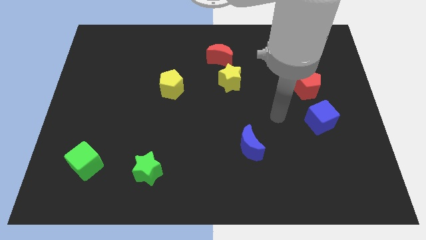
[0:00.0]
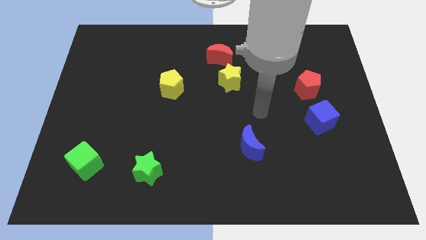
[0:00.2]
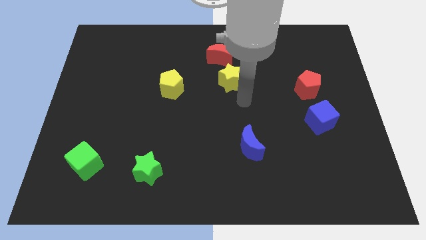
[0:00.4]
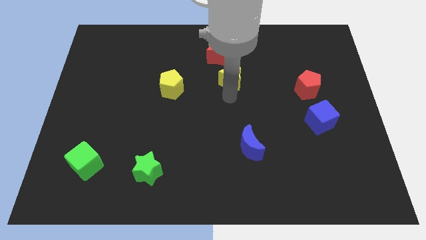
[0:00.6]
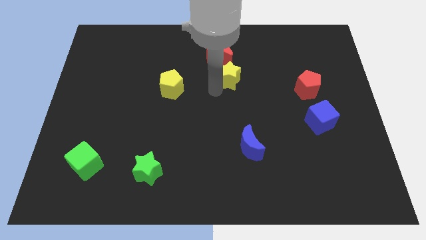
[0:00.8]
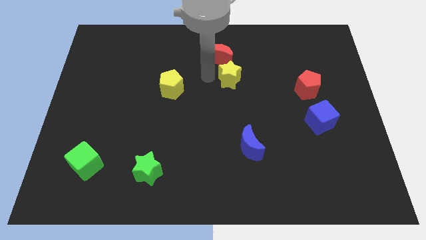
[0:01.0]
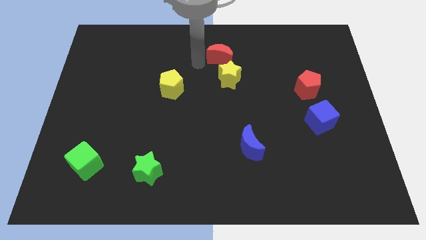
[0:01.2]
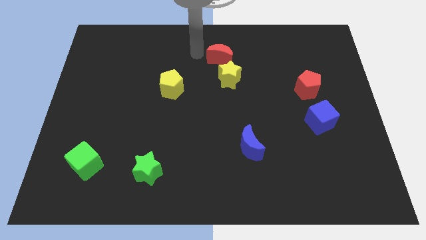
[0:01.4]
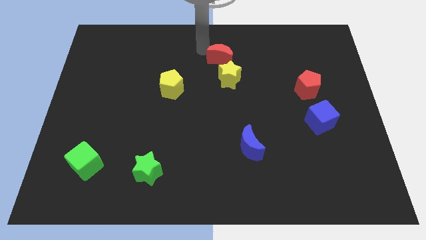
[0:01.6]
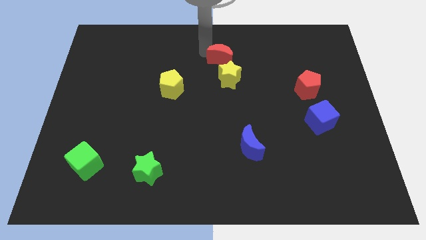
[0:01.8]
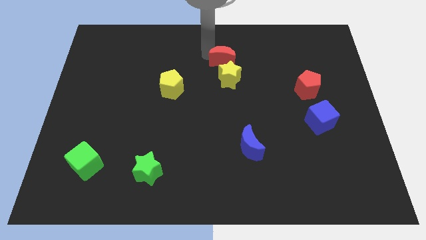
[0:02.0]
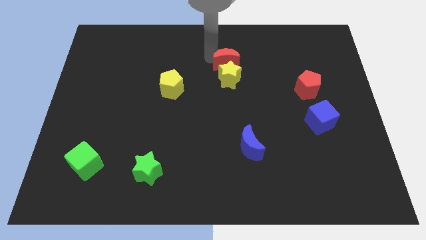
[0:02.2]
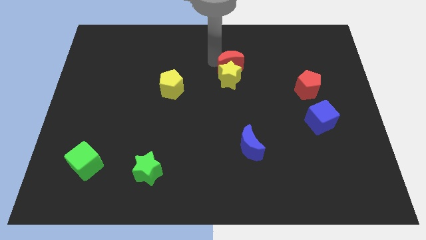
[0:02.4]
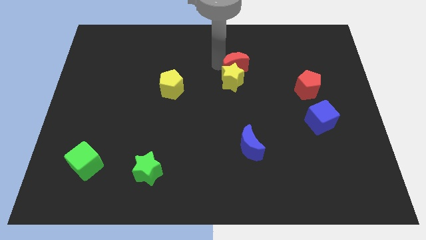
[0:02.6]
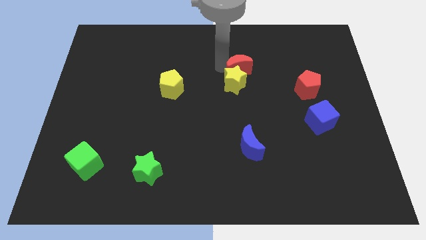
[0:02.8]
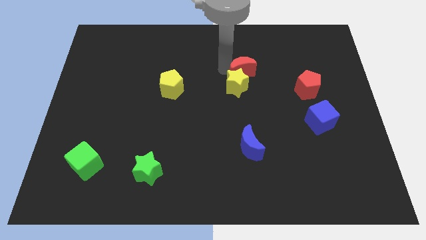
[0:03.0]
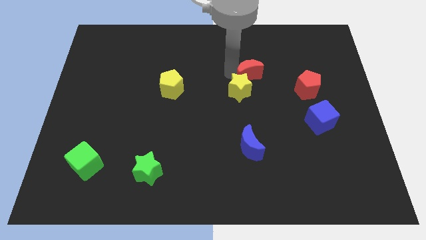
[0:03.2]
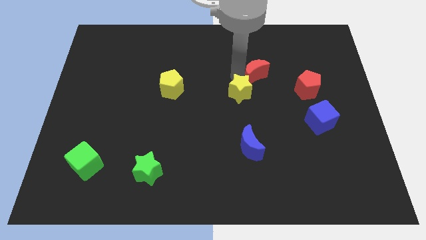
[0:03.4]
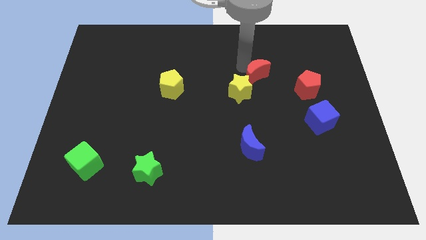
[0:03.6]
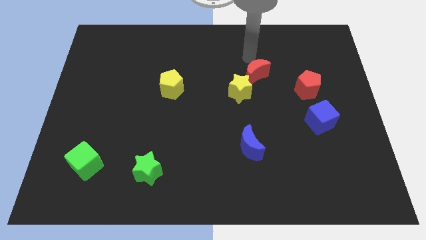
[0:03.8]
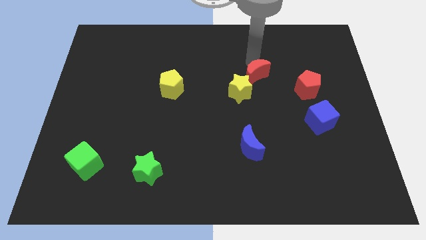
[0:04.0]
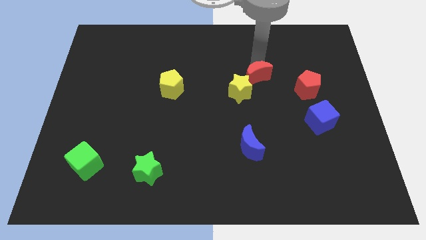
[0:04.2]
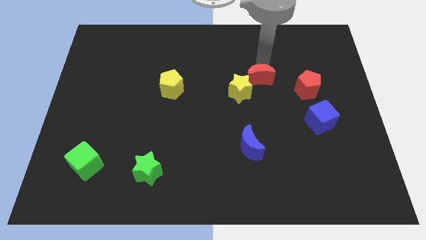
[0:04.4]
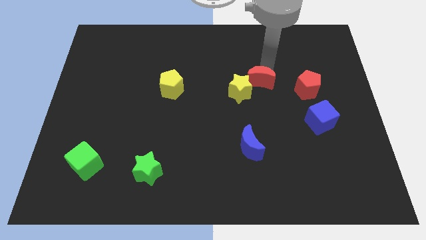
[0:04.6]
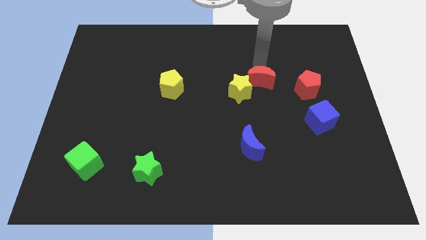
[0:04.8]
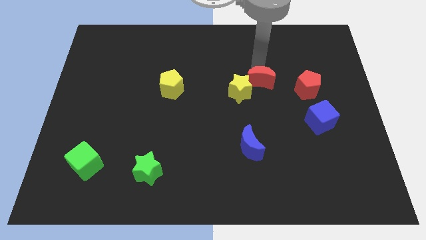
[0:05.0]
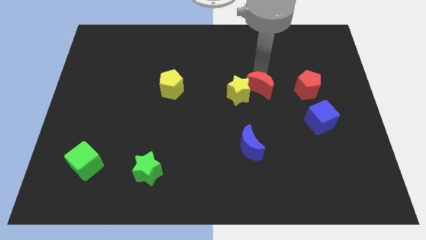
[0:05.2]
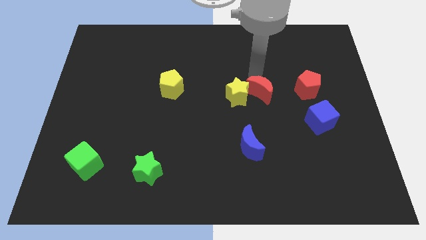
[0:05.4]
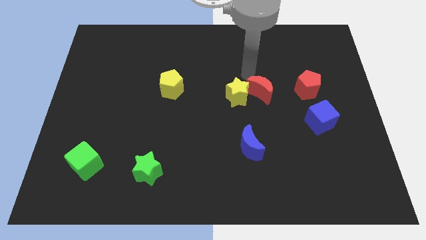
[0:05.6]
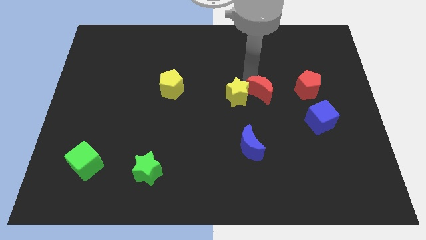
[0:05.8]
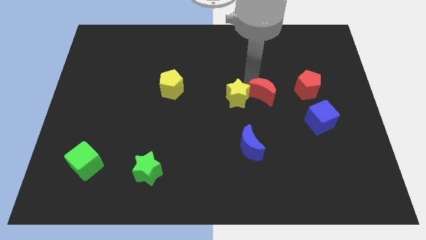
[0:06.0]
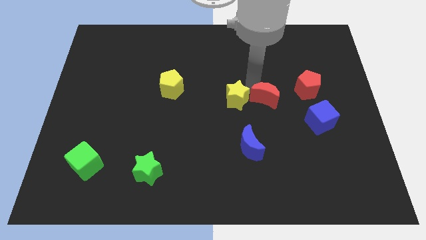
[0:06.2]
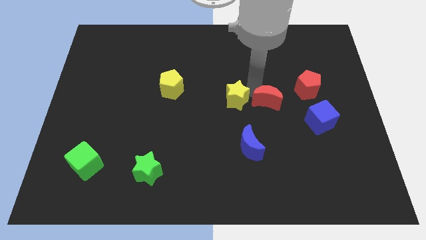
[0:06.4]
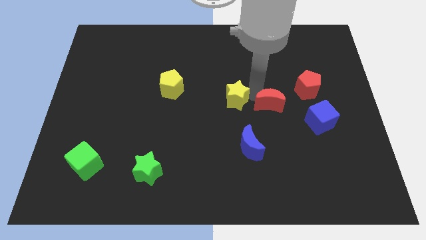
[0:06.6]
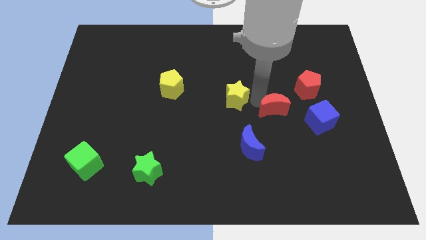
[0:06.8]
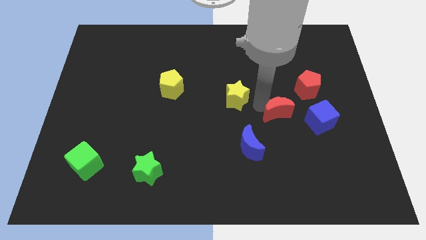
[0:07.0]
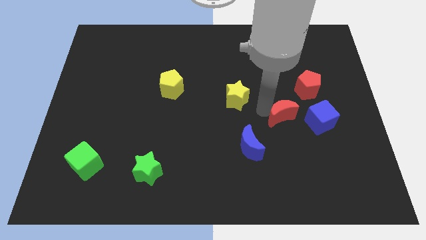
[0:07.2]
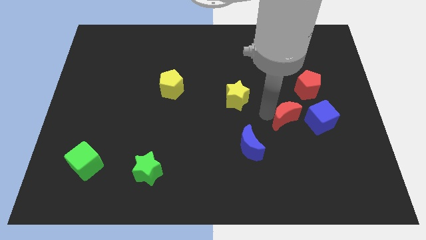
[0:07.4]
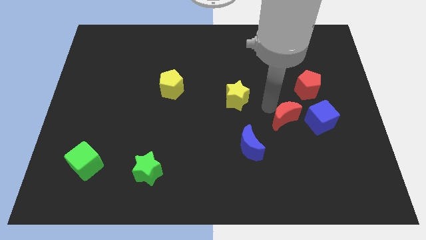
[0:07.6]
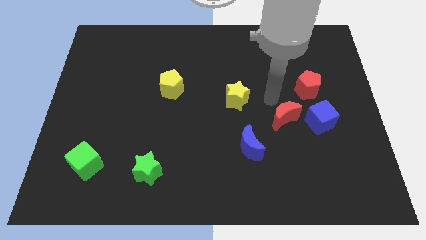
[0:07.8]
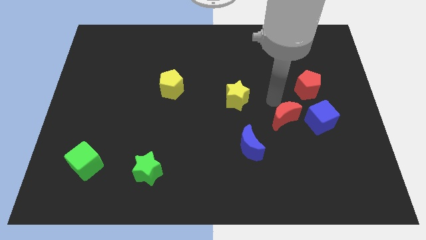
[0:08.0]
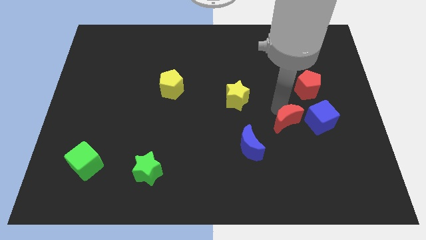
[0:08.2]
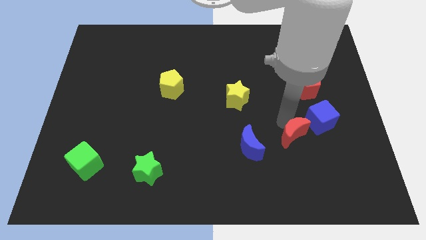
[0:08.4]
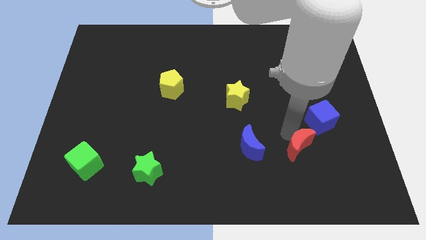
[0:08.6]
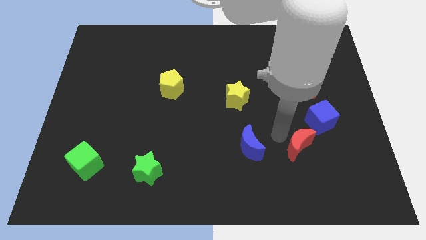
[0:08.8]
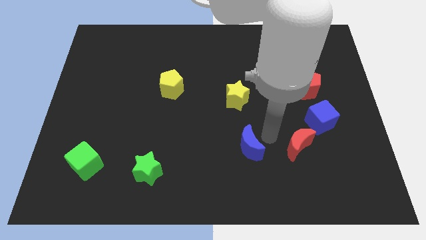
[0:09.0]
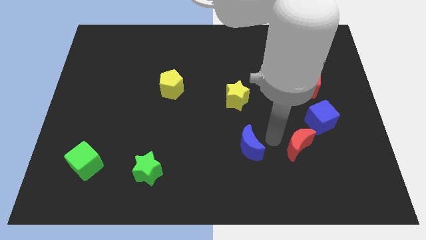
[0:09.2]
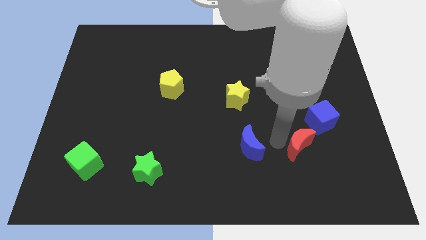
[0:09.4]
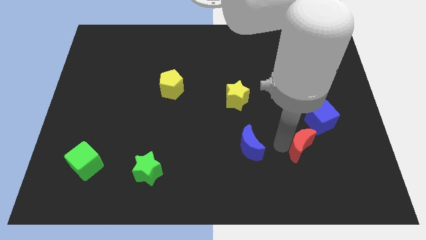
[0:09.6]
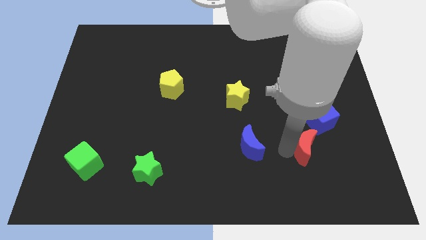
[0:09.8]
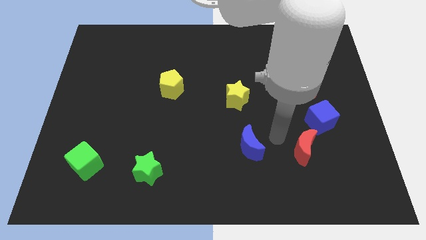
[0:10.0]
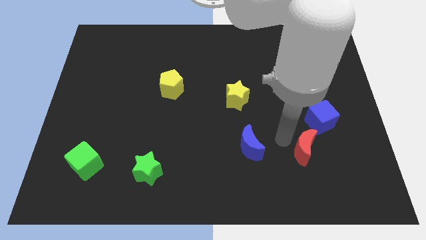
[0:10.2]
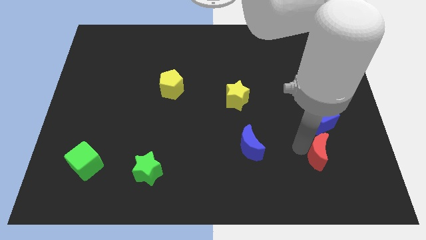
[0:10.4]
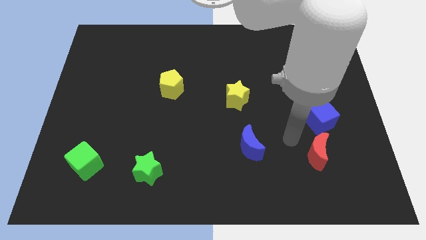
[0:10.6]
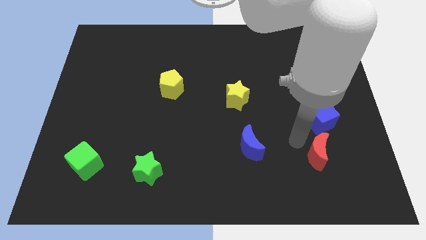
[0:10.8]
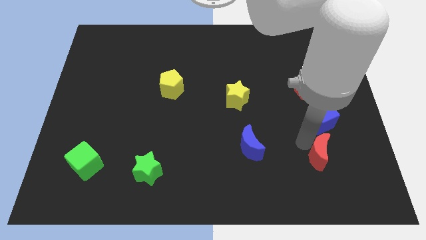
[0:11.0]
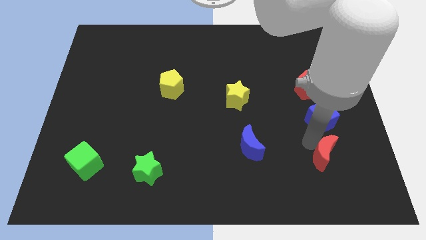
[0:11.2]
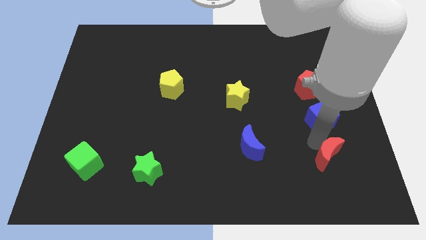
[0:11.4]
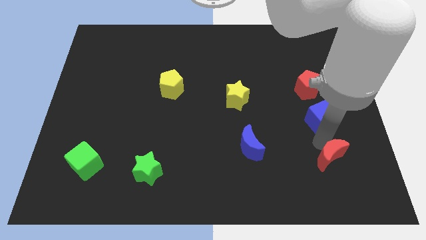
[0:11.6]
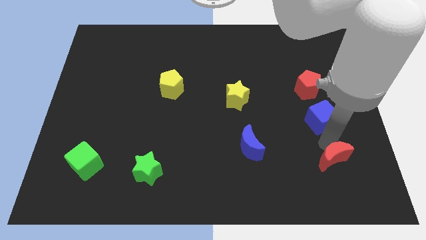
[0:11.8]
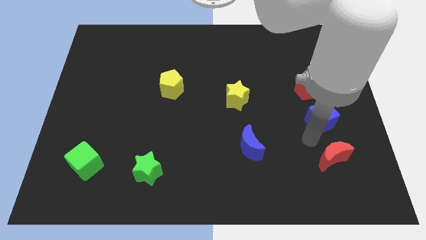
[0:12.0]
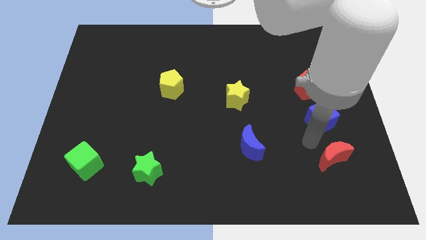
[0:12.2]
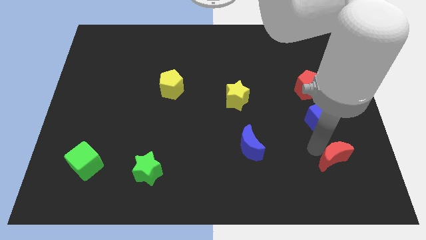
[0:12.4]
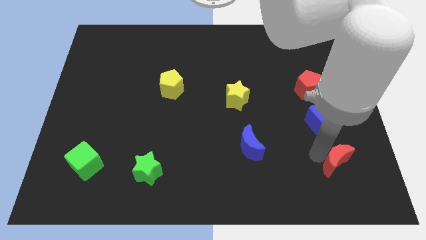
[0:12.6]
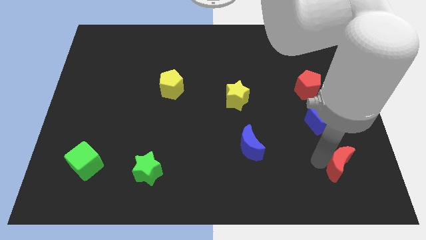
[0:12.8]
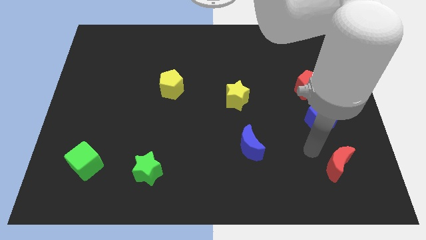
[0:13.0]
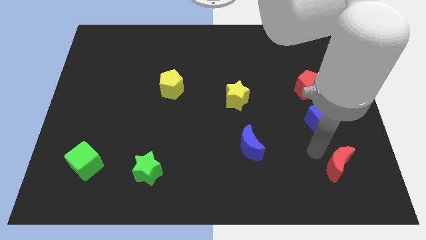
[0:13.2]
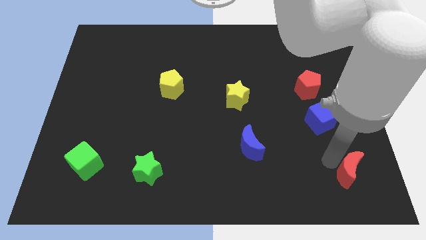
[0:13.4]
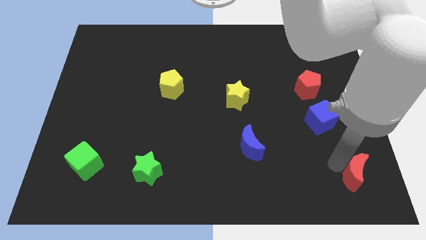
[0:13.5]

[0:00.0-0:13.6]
push the red moon to the bottom right corner
